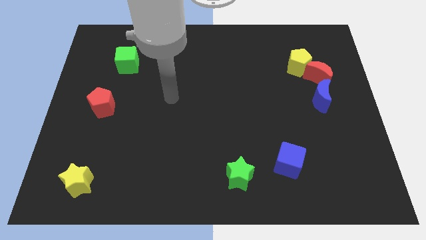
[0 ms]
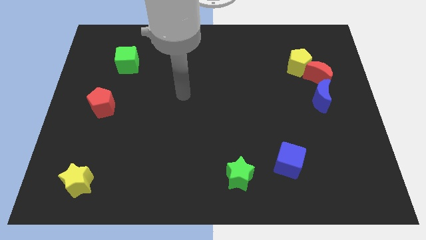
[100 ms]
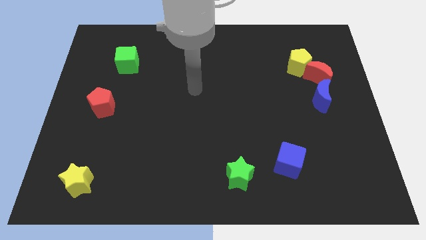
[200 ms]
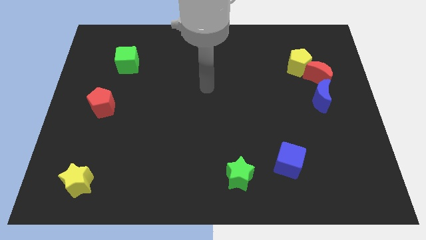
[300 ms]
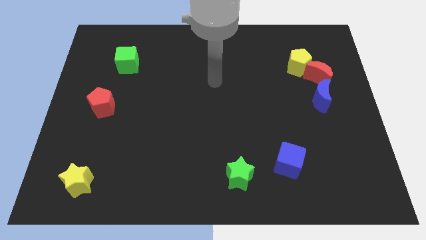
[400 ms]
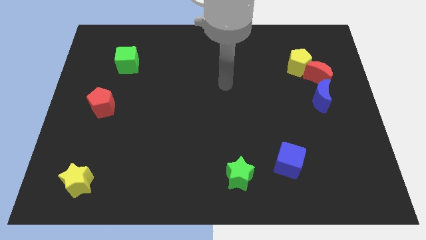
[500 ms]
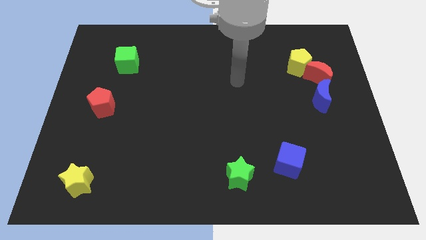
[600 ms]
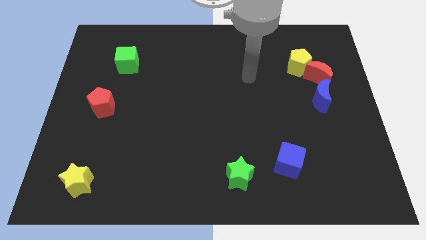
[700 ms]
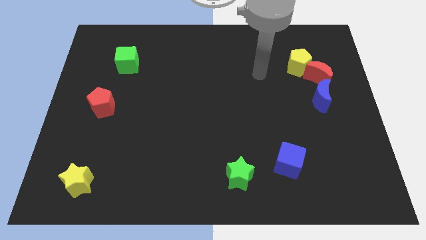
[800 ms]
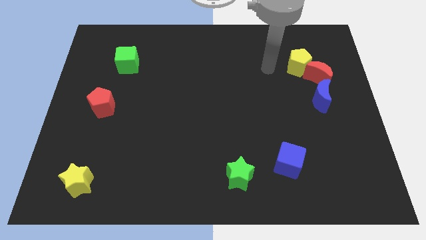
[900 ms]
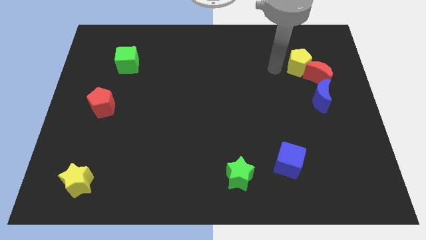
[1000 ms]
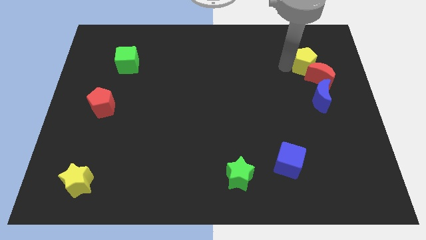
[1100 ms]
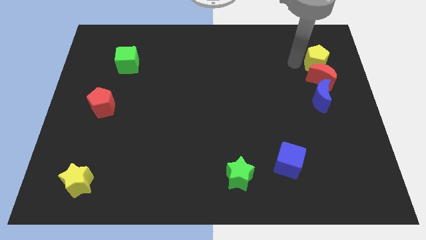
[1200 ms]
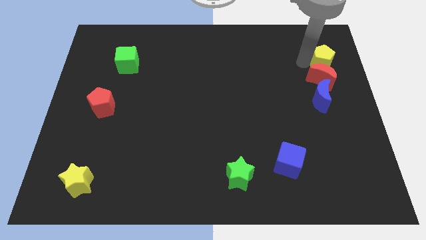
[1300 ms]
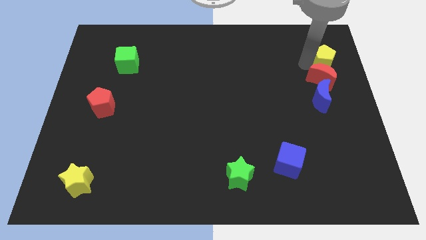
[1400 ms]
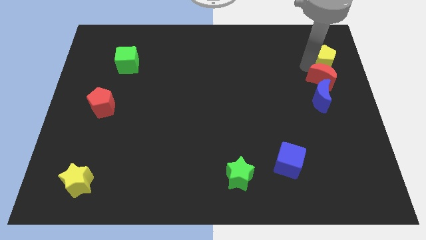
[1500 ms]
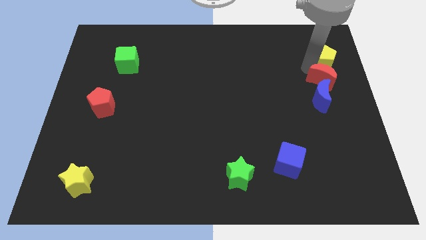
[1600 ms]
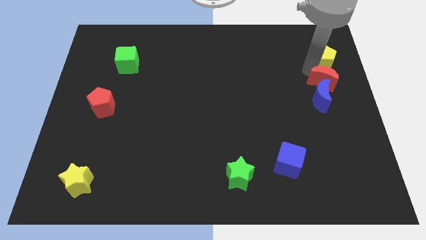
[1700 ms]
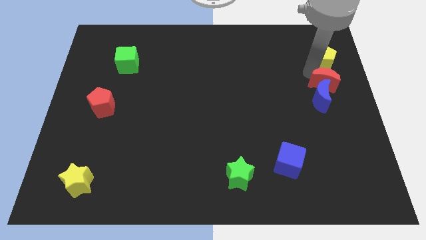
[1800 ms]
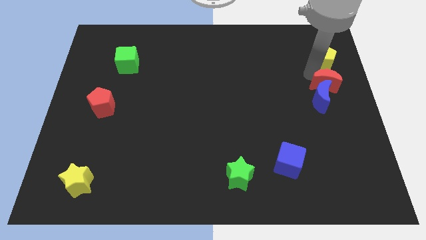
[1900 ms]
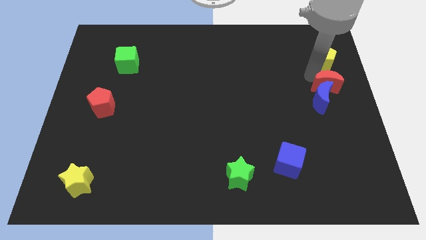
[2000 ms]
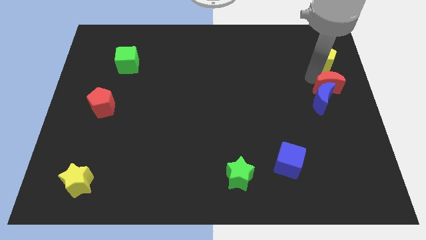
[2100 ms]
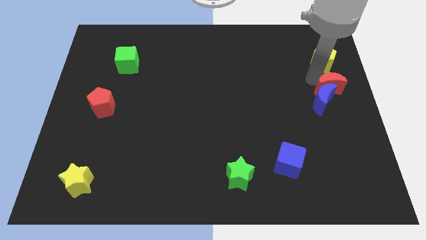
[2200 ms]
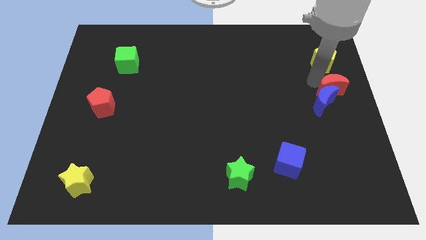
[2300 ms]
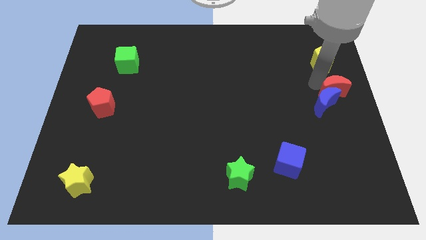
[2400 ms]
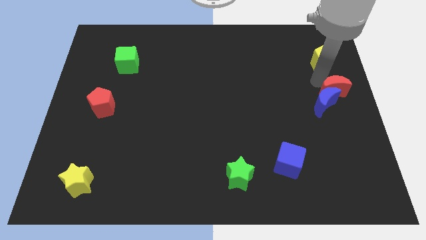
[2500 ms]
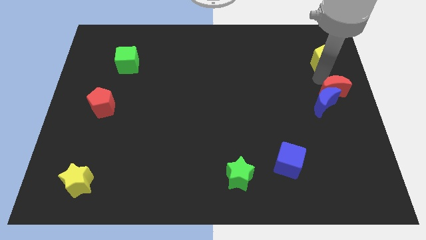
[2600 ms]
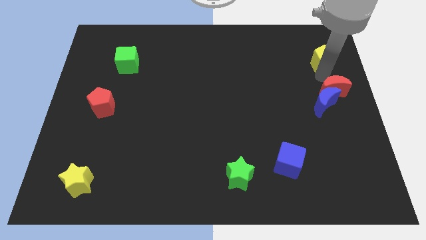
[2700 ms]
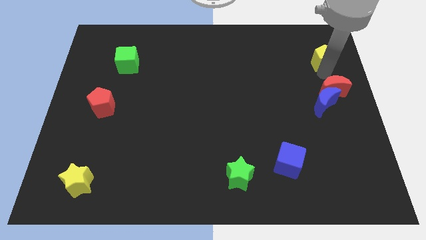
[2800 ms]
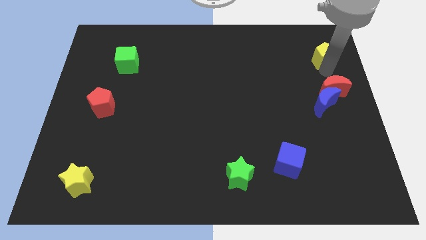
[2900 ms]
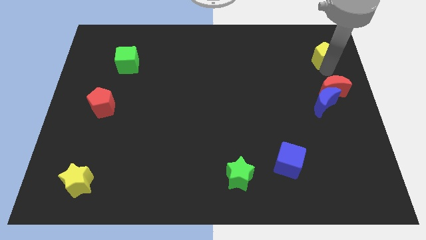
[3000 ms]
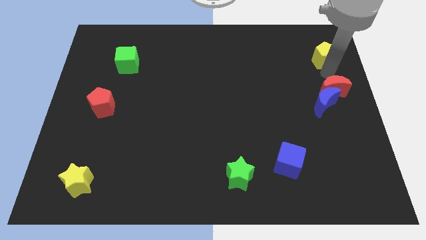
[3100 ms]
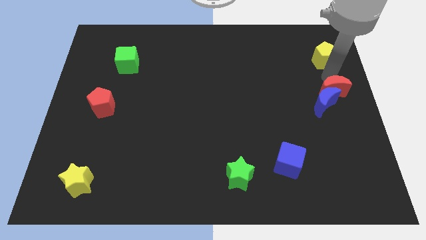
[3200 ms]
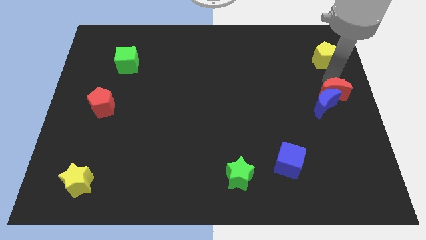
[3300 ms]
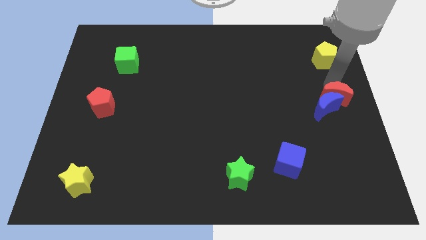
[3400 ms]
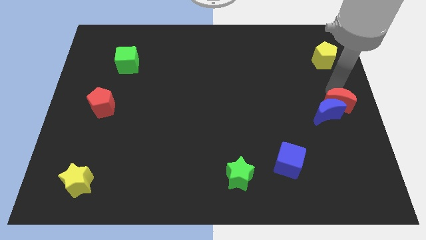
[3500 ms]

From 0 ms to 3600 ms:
push the red moon somewhat down

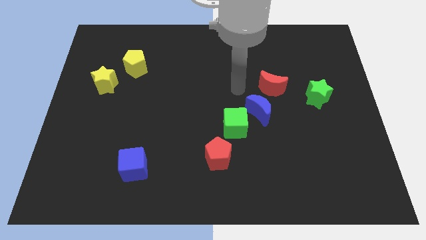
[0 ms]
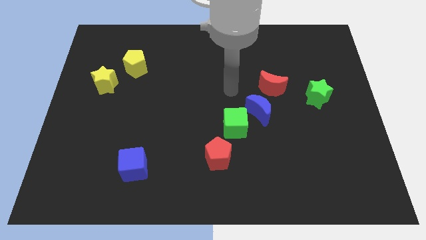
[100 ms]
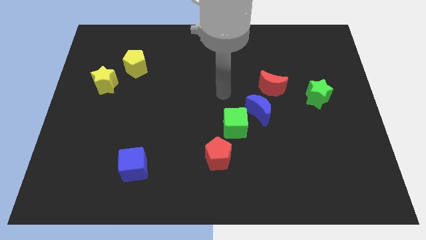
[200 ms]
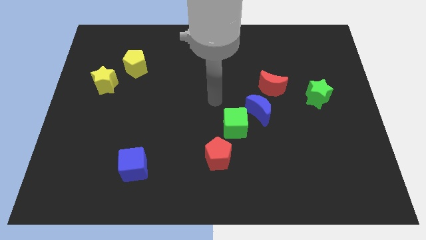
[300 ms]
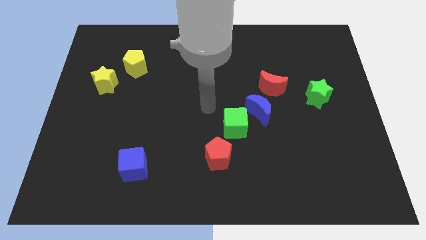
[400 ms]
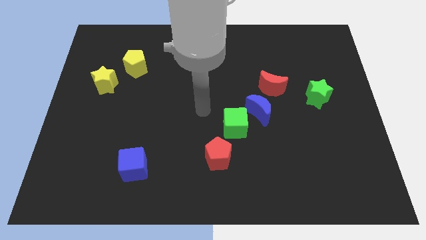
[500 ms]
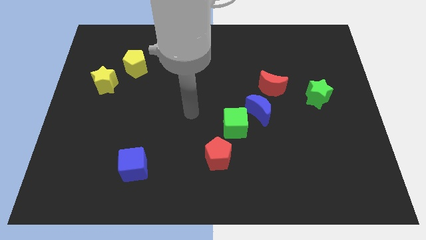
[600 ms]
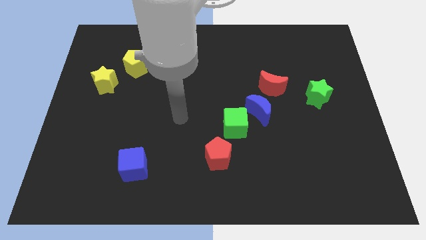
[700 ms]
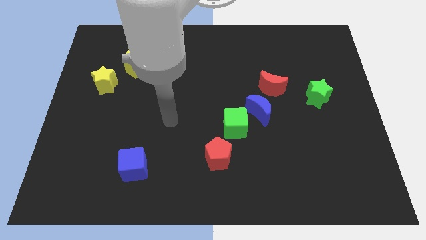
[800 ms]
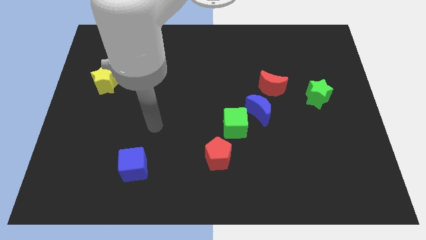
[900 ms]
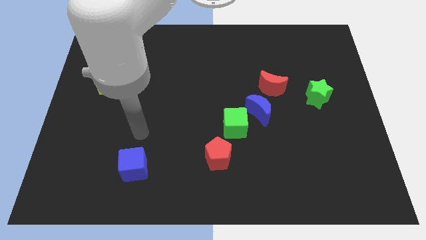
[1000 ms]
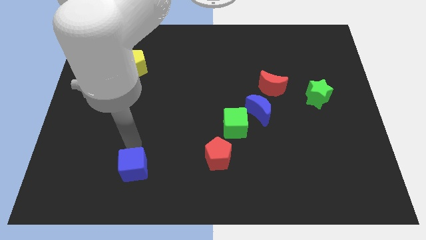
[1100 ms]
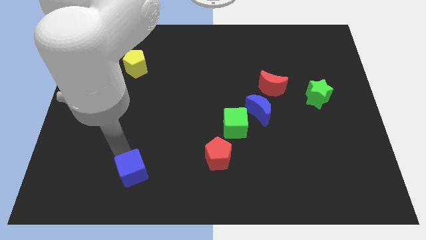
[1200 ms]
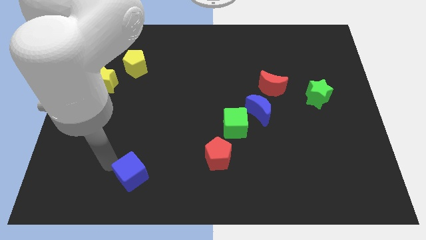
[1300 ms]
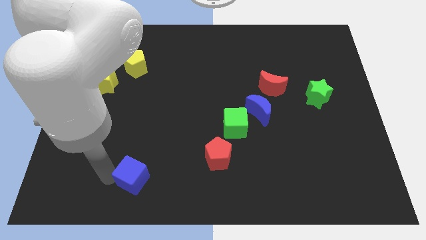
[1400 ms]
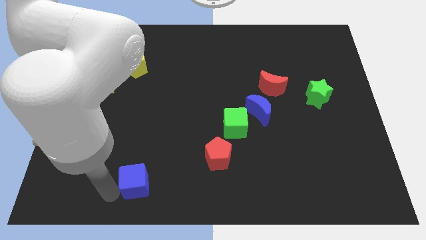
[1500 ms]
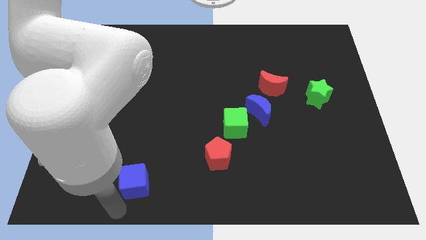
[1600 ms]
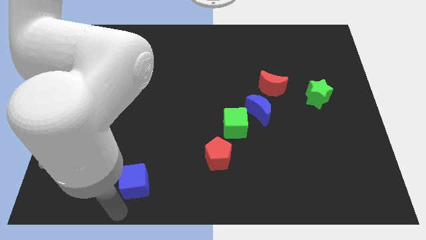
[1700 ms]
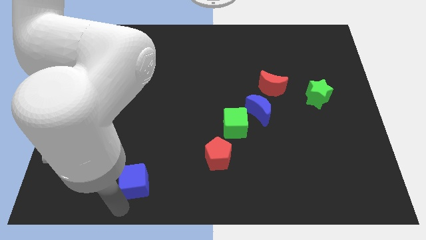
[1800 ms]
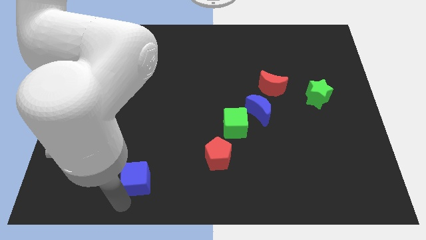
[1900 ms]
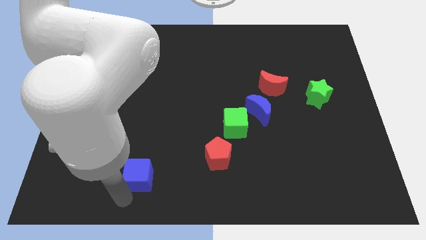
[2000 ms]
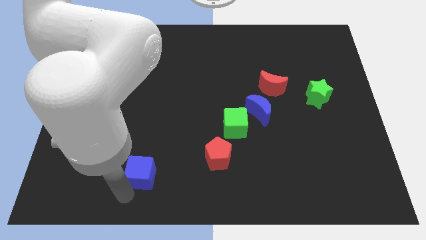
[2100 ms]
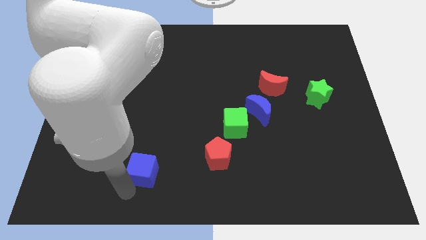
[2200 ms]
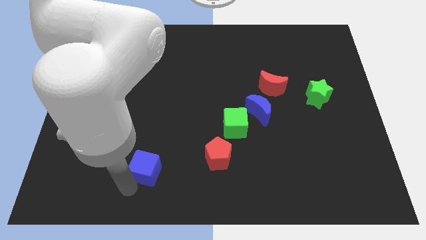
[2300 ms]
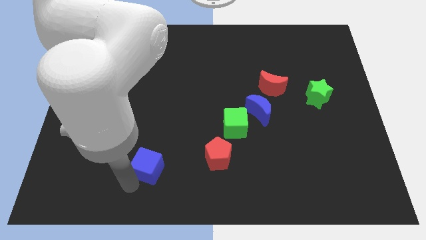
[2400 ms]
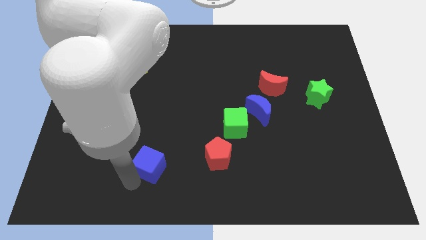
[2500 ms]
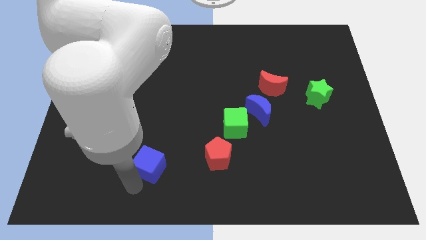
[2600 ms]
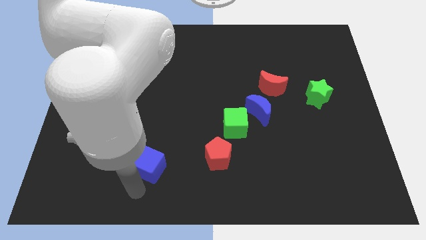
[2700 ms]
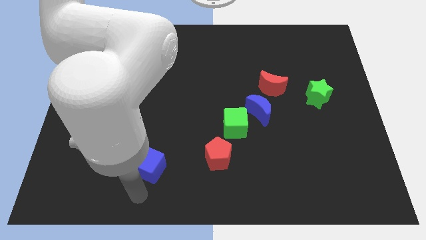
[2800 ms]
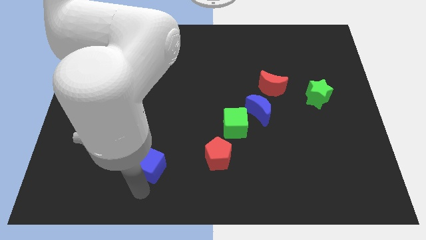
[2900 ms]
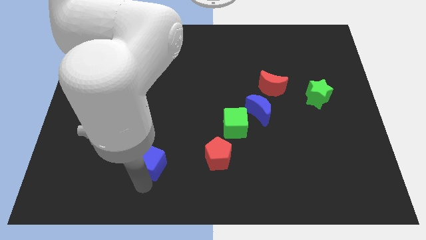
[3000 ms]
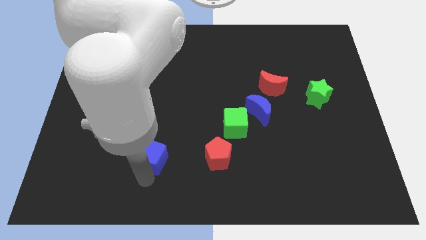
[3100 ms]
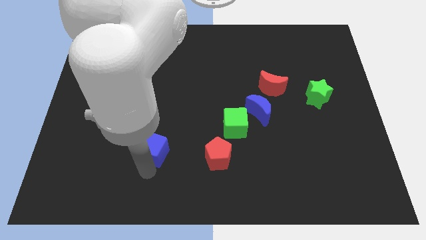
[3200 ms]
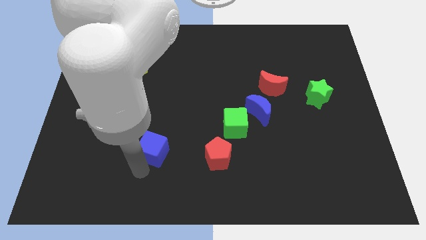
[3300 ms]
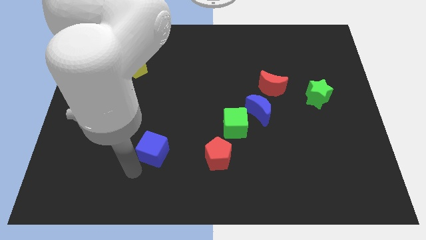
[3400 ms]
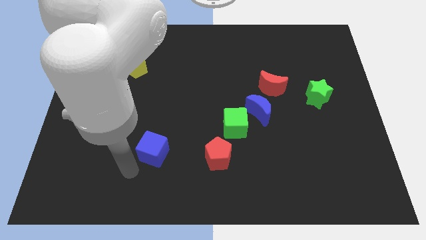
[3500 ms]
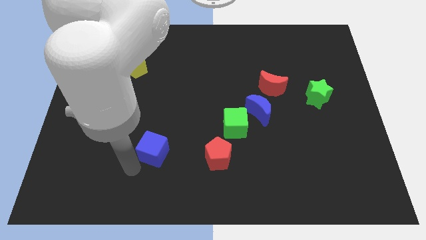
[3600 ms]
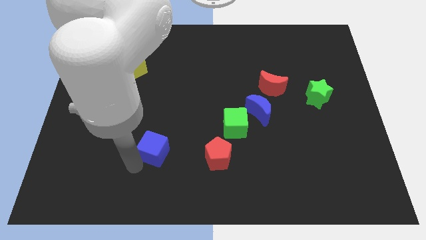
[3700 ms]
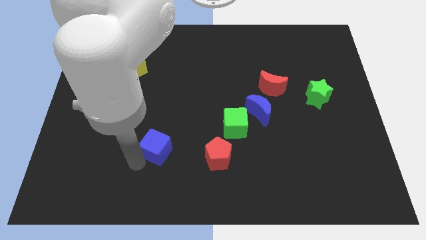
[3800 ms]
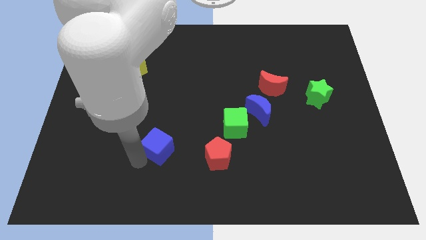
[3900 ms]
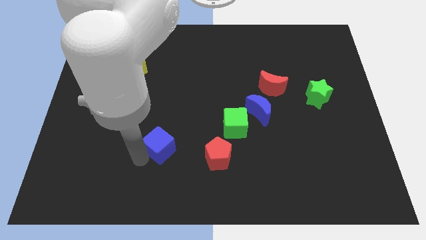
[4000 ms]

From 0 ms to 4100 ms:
push the blue cube upwards and right a little bit

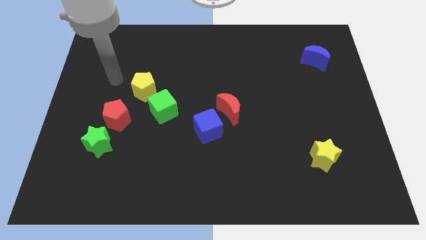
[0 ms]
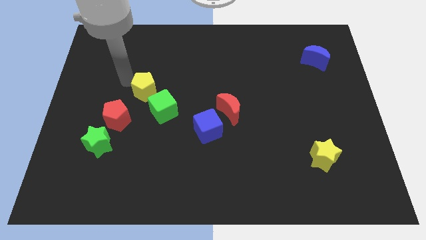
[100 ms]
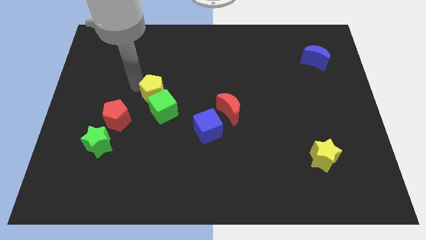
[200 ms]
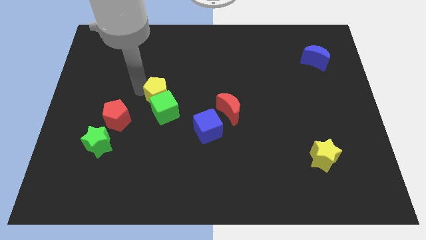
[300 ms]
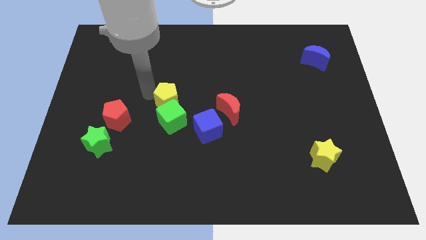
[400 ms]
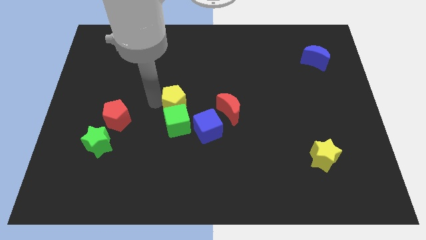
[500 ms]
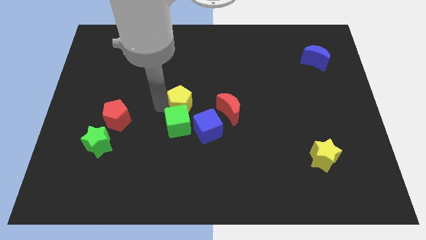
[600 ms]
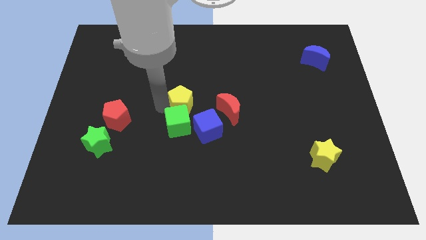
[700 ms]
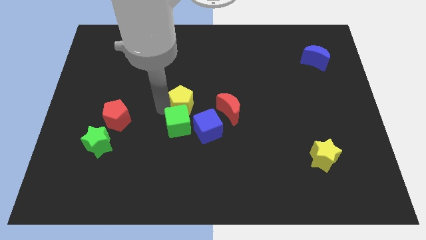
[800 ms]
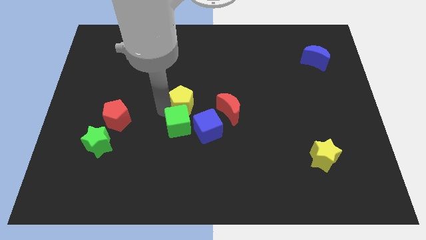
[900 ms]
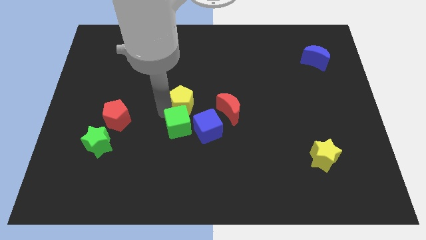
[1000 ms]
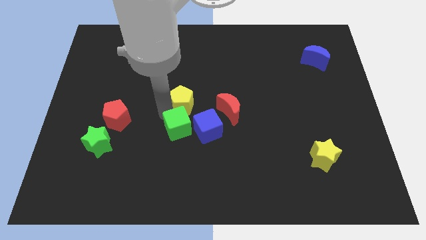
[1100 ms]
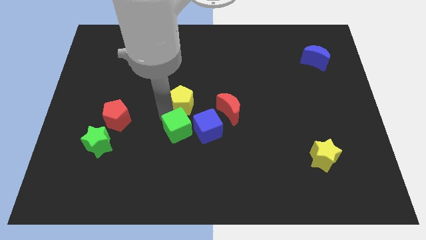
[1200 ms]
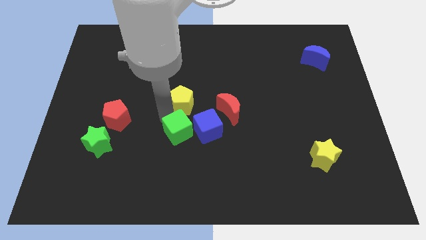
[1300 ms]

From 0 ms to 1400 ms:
slide the green cube a little diagonally down and to the right
